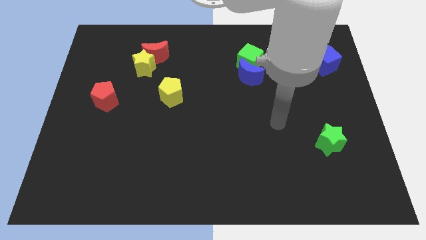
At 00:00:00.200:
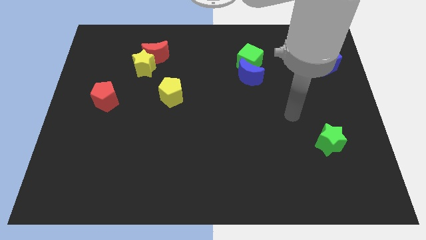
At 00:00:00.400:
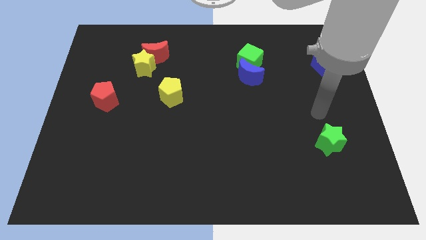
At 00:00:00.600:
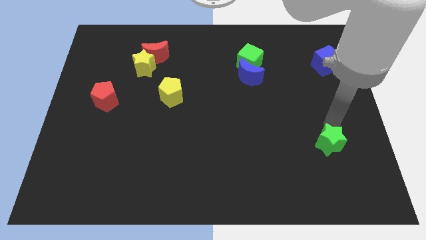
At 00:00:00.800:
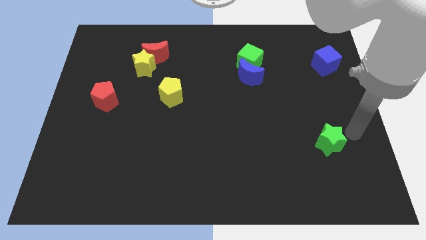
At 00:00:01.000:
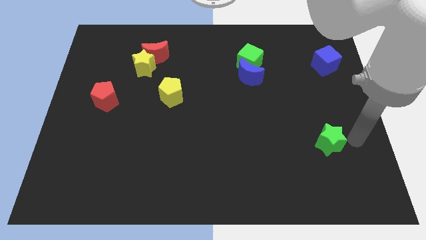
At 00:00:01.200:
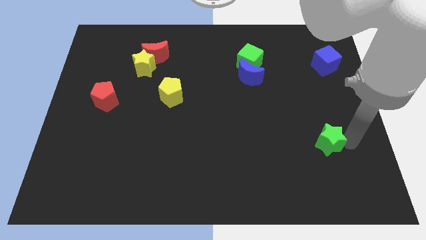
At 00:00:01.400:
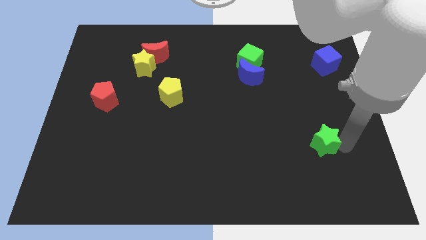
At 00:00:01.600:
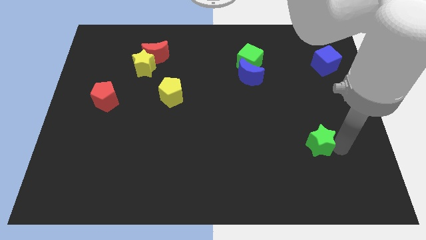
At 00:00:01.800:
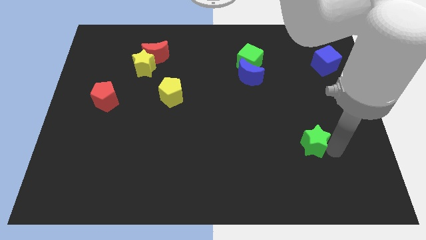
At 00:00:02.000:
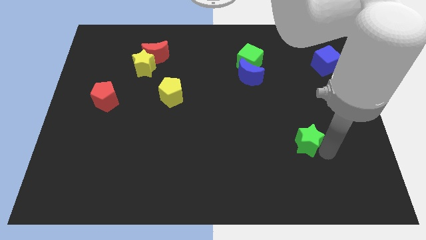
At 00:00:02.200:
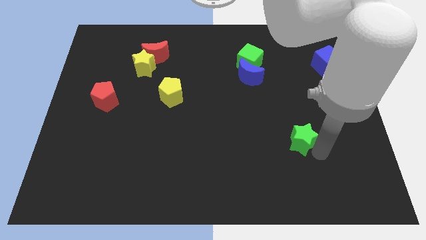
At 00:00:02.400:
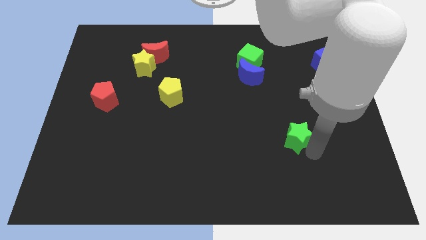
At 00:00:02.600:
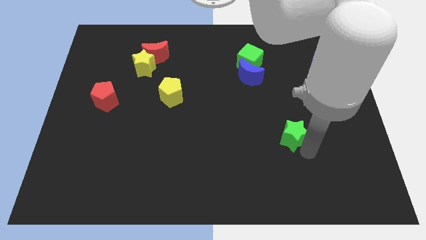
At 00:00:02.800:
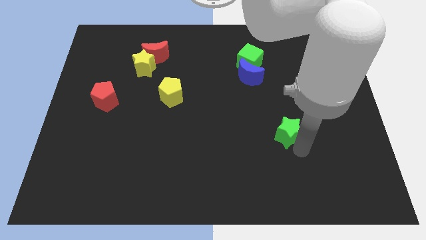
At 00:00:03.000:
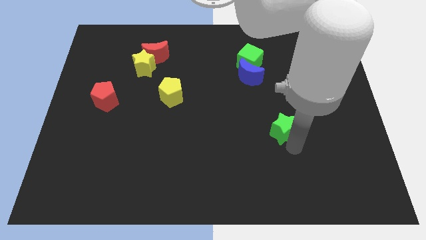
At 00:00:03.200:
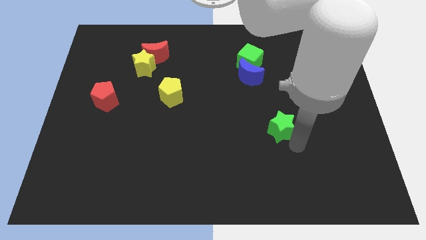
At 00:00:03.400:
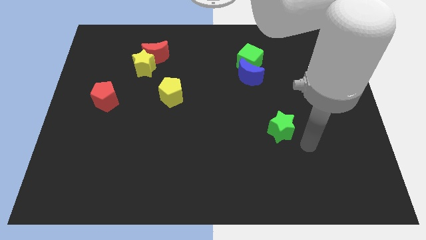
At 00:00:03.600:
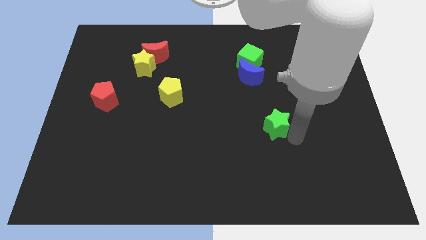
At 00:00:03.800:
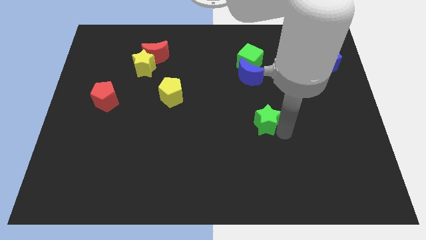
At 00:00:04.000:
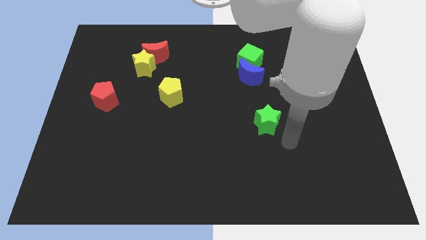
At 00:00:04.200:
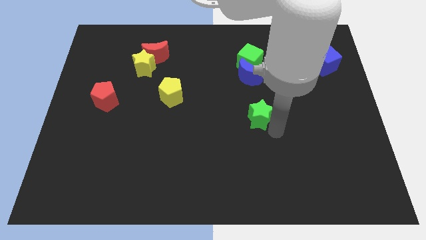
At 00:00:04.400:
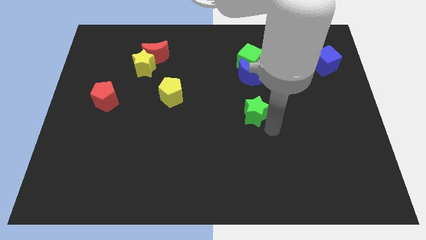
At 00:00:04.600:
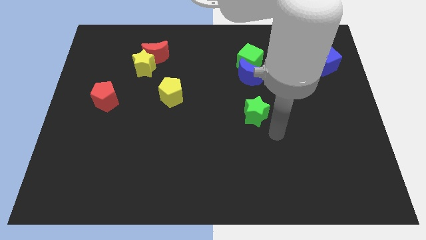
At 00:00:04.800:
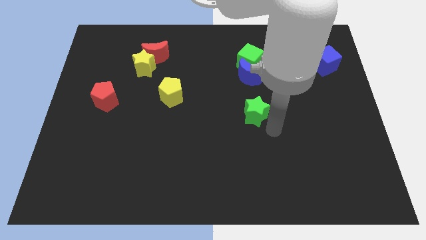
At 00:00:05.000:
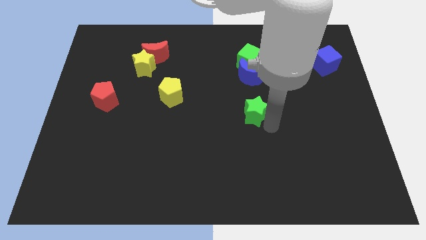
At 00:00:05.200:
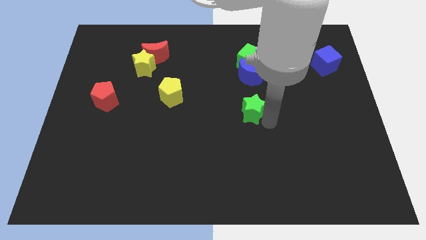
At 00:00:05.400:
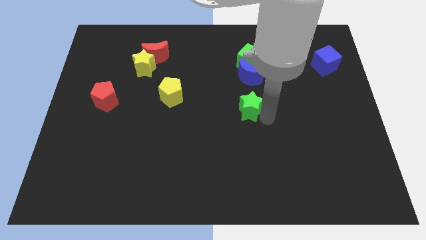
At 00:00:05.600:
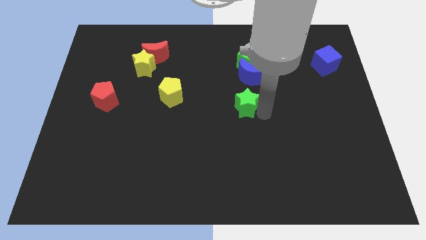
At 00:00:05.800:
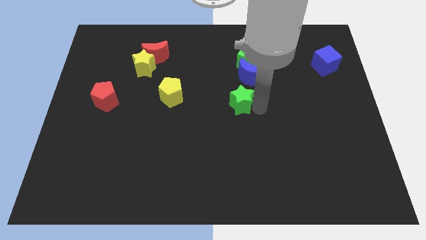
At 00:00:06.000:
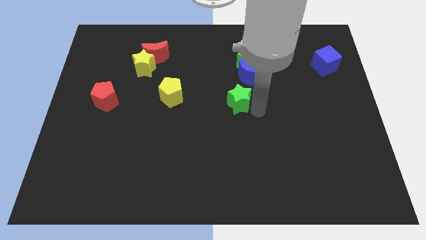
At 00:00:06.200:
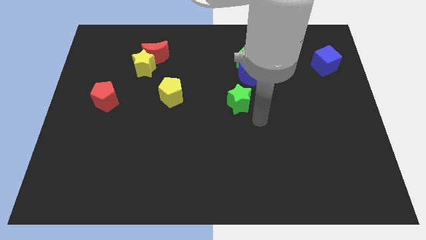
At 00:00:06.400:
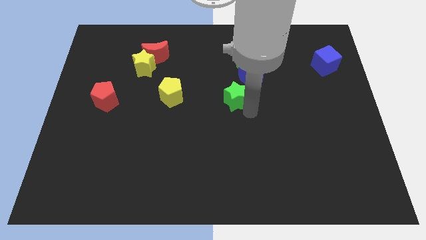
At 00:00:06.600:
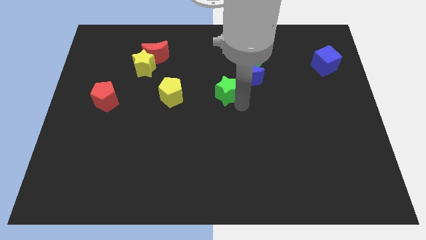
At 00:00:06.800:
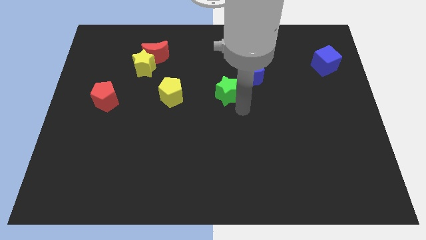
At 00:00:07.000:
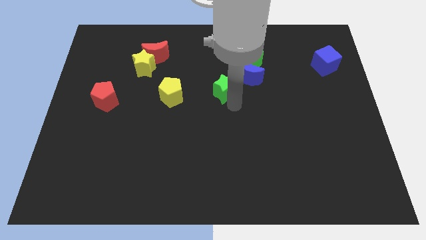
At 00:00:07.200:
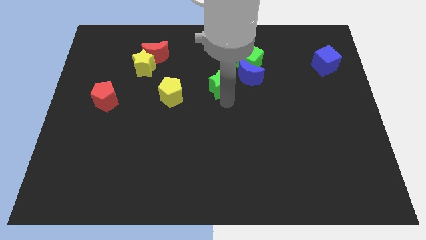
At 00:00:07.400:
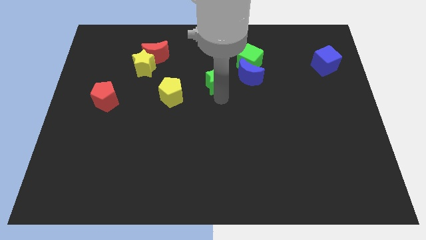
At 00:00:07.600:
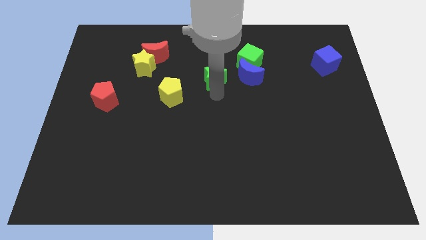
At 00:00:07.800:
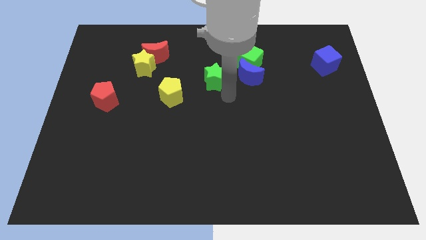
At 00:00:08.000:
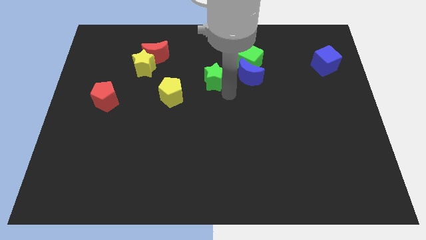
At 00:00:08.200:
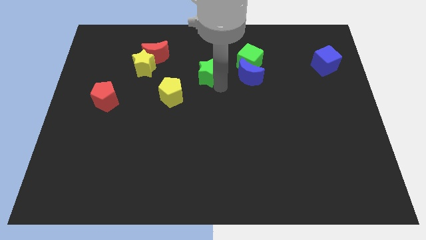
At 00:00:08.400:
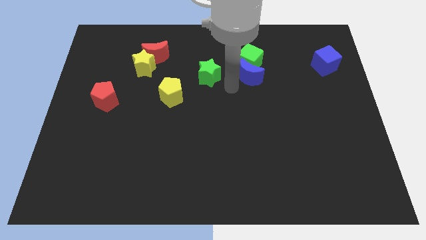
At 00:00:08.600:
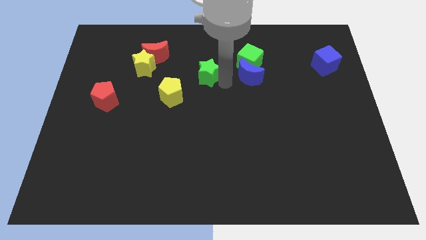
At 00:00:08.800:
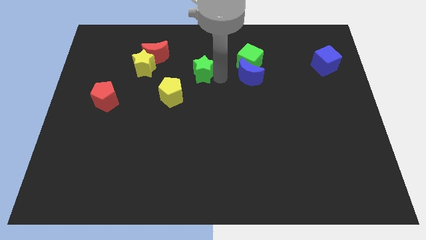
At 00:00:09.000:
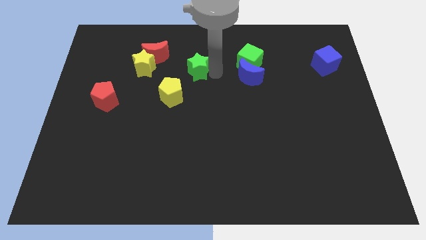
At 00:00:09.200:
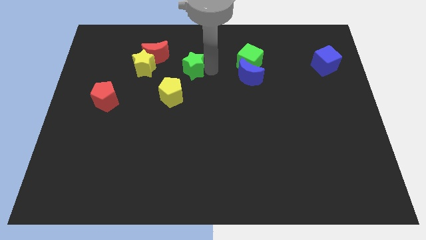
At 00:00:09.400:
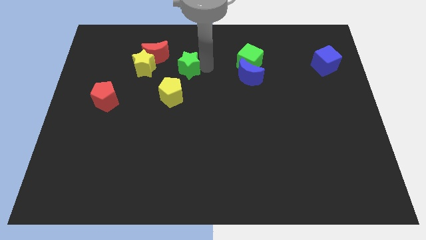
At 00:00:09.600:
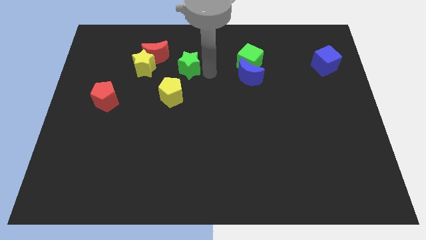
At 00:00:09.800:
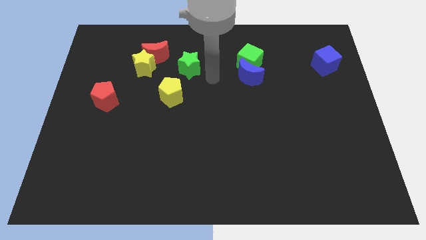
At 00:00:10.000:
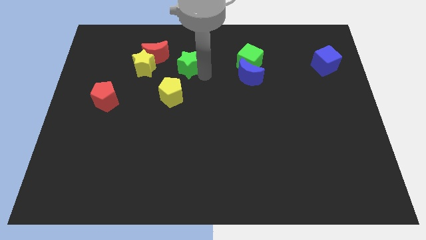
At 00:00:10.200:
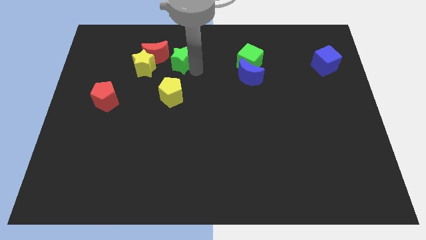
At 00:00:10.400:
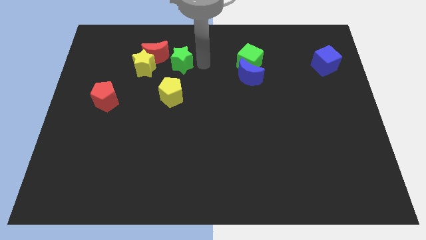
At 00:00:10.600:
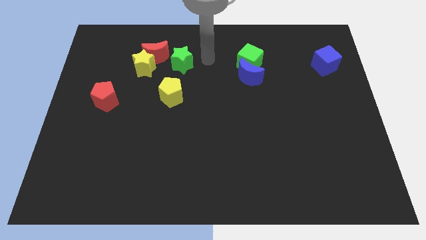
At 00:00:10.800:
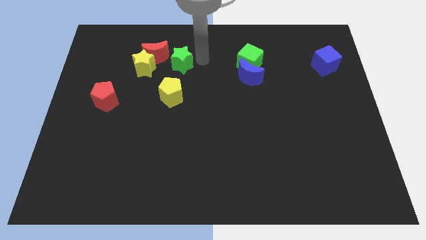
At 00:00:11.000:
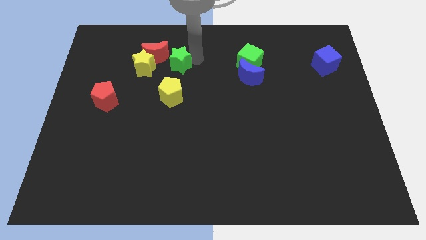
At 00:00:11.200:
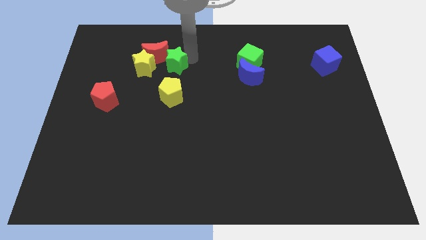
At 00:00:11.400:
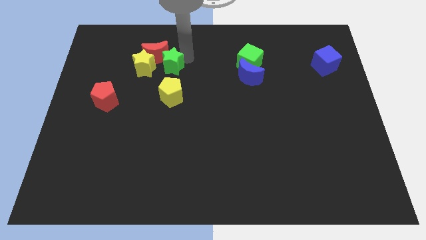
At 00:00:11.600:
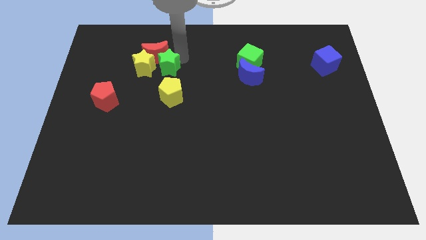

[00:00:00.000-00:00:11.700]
push the green star close to the yellow star

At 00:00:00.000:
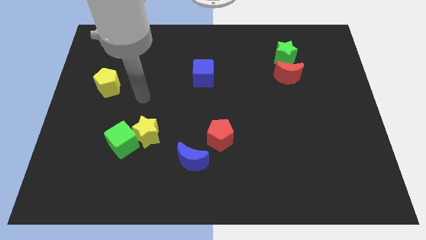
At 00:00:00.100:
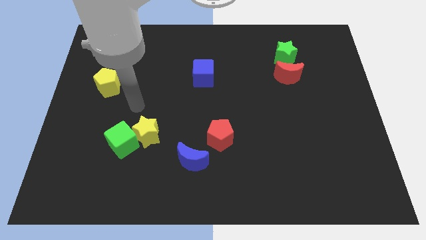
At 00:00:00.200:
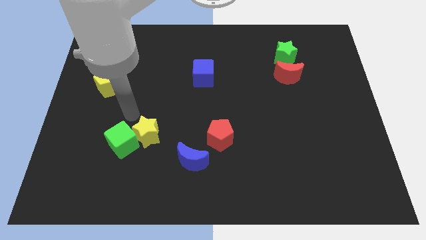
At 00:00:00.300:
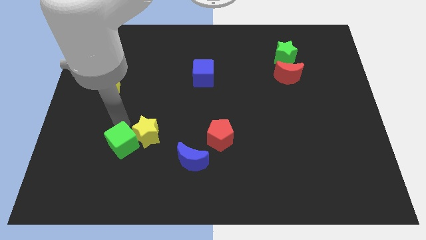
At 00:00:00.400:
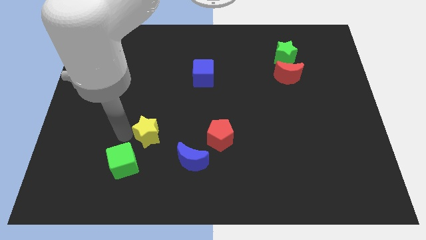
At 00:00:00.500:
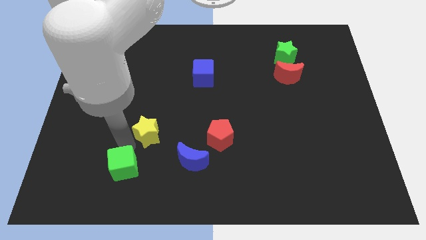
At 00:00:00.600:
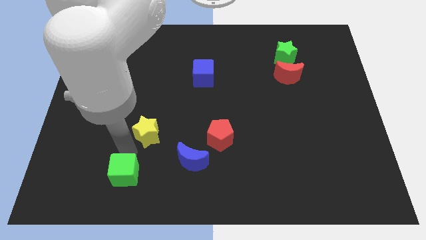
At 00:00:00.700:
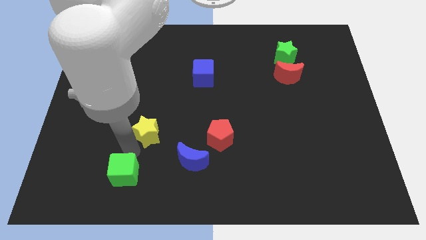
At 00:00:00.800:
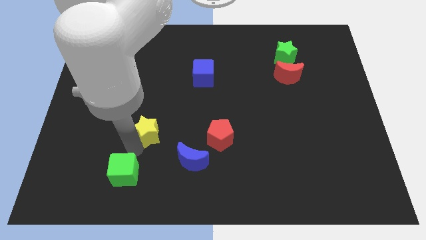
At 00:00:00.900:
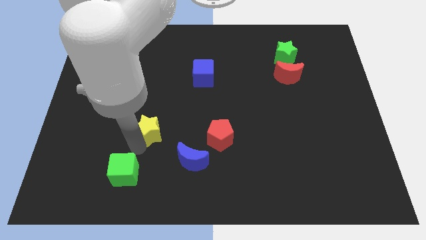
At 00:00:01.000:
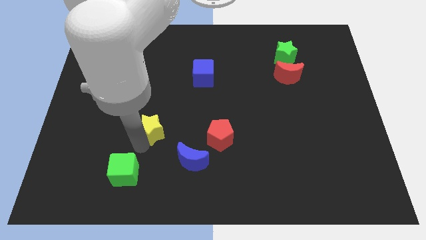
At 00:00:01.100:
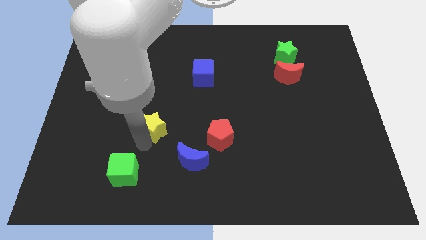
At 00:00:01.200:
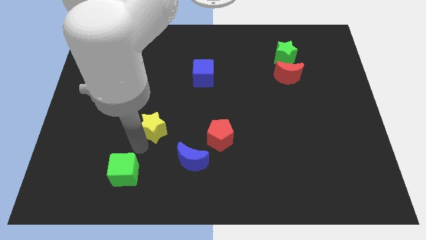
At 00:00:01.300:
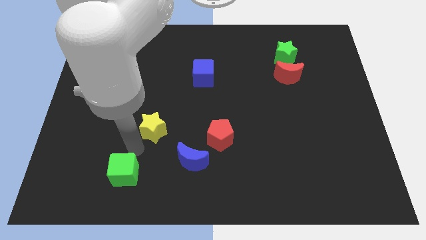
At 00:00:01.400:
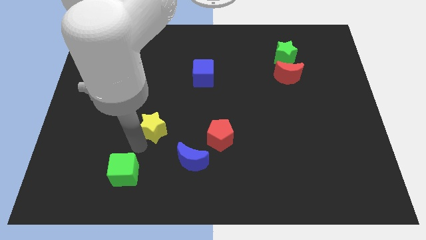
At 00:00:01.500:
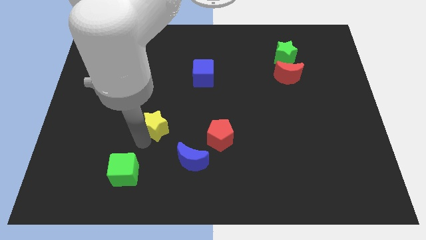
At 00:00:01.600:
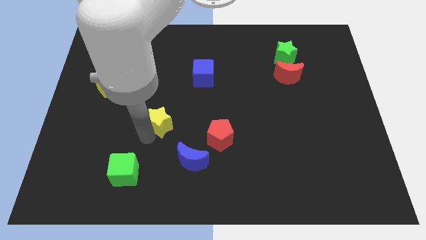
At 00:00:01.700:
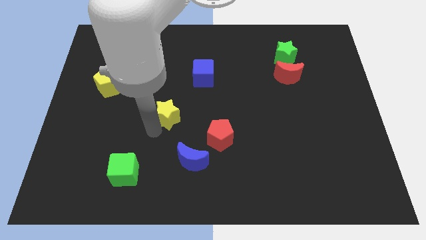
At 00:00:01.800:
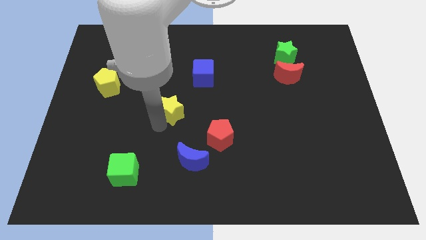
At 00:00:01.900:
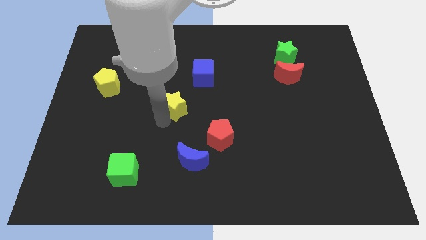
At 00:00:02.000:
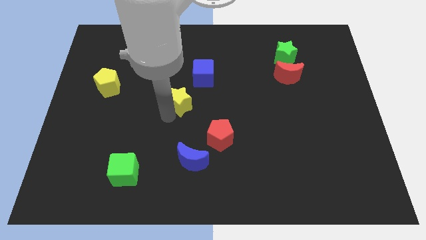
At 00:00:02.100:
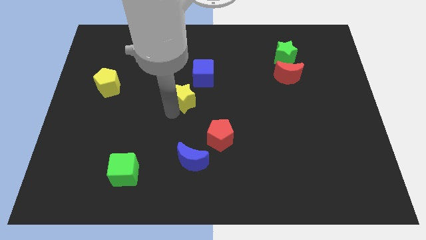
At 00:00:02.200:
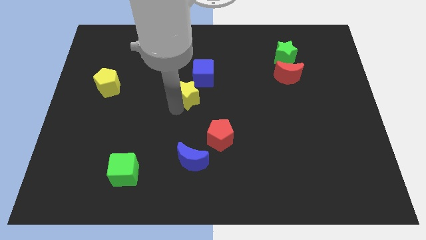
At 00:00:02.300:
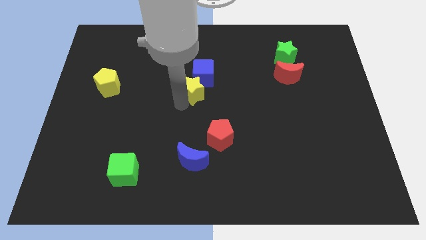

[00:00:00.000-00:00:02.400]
move the yellow star towards the blue cube
